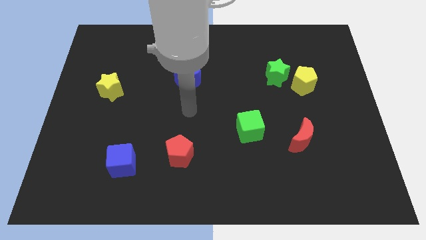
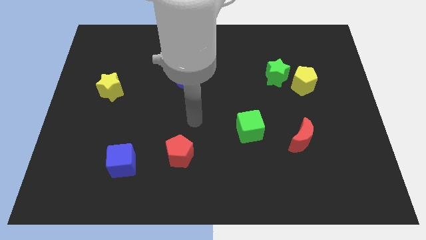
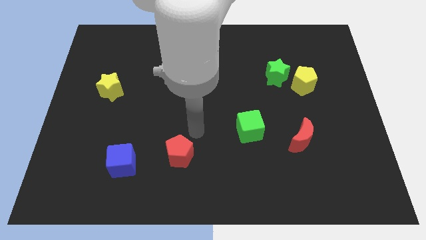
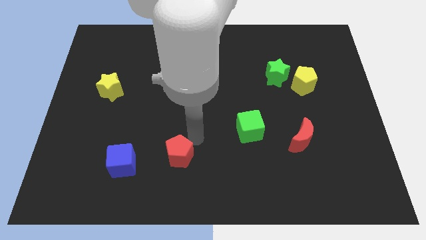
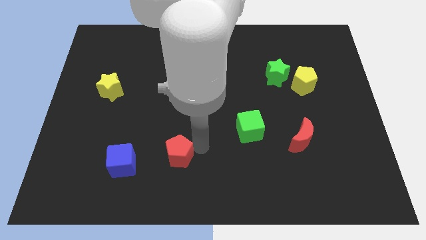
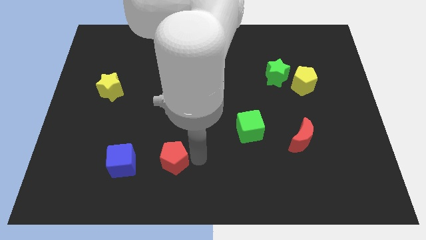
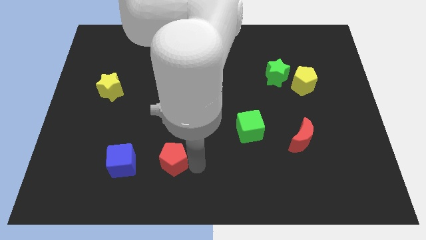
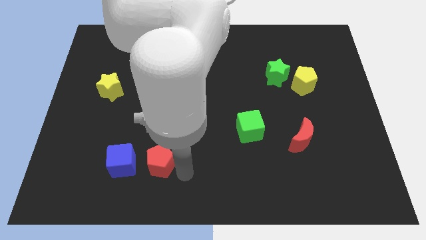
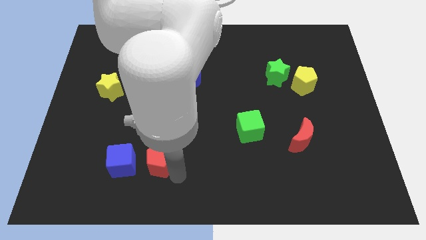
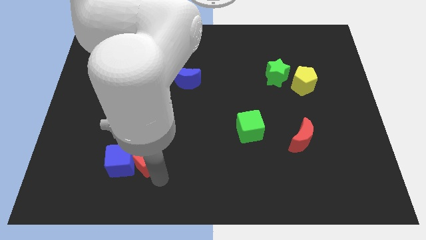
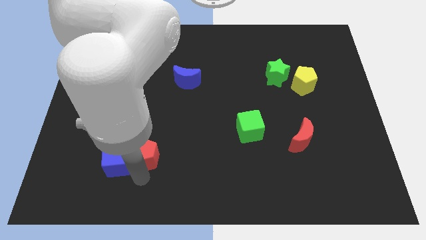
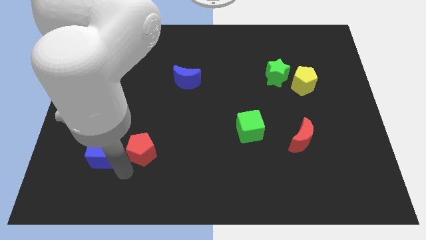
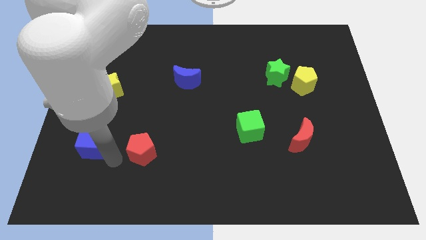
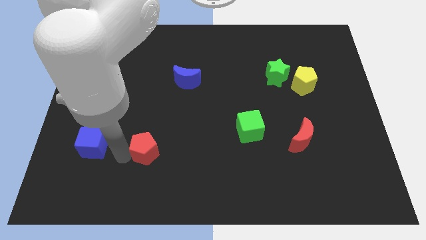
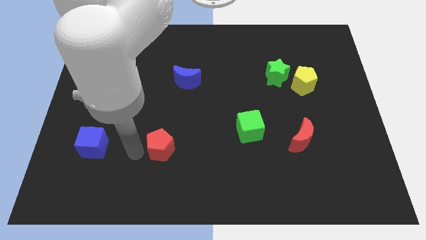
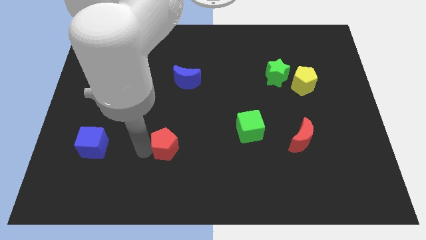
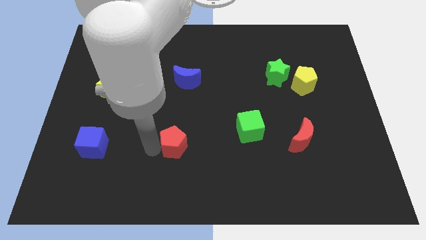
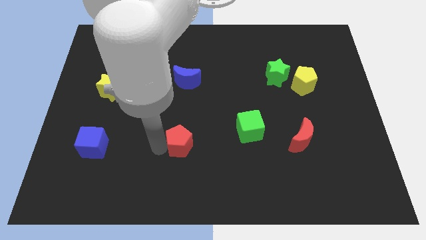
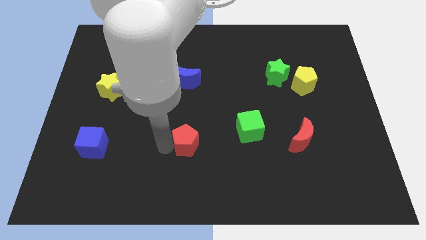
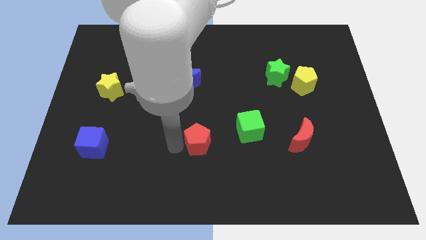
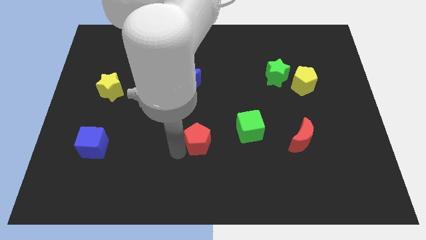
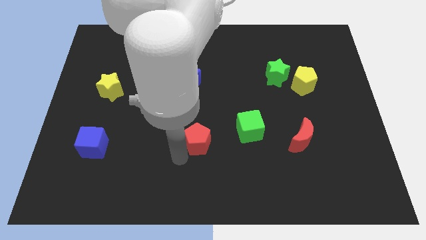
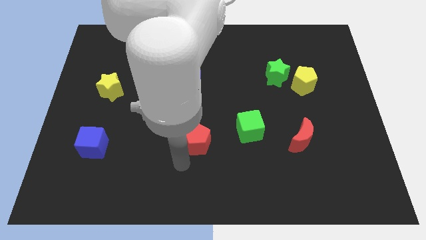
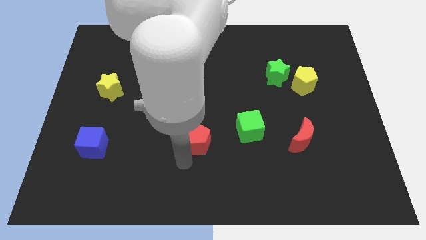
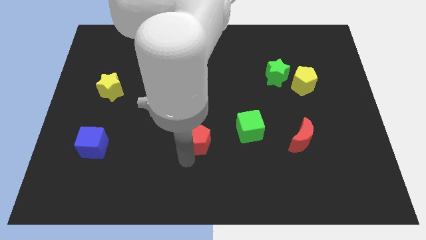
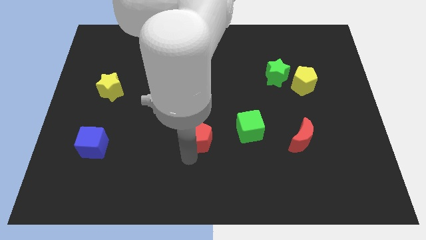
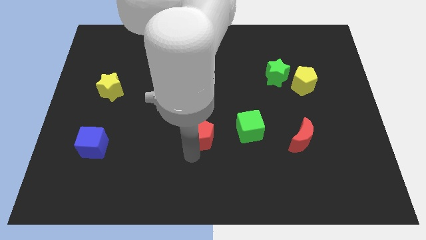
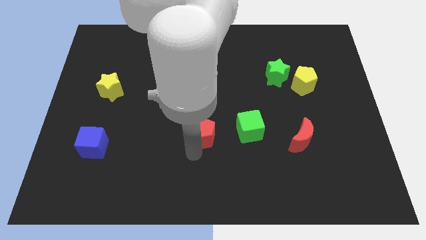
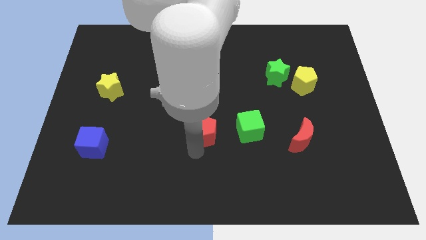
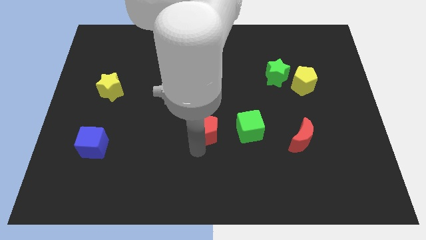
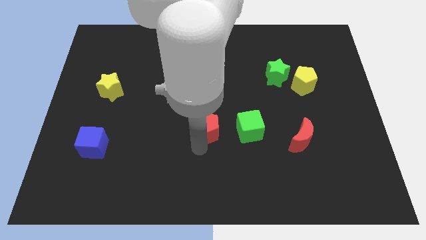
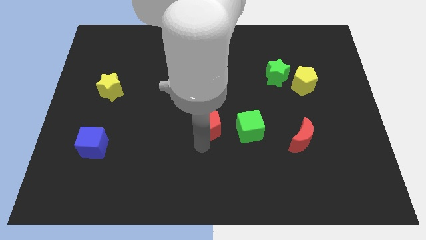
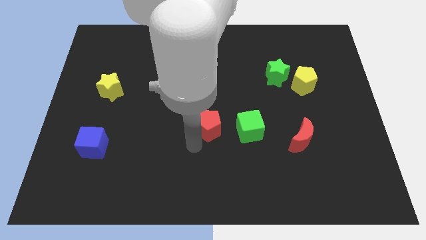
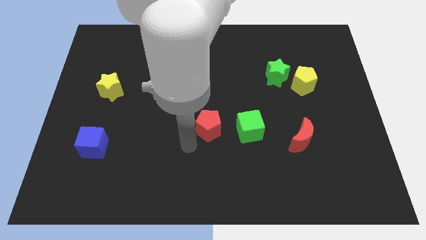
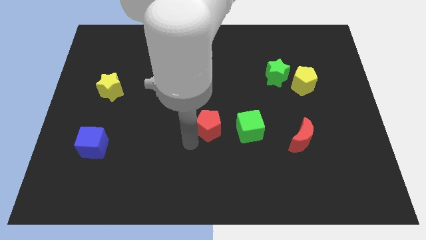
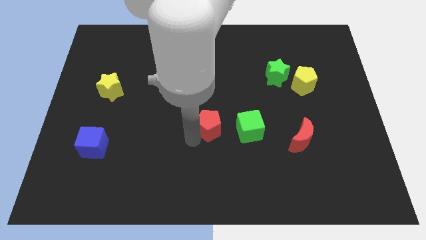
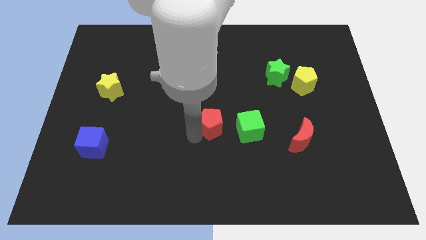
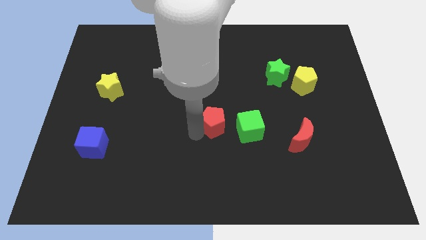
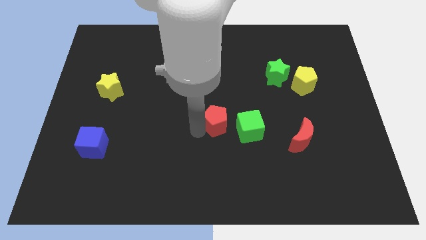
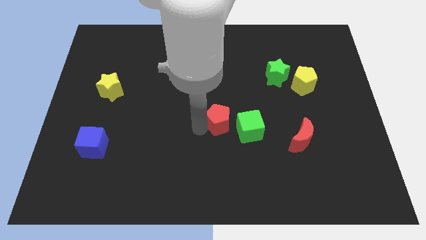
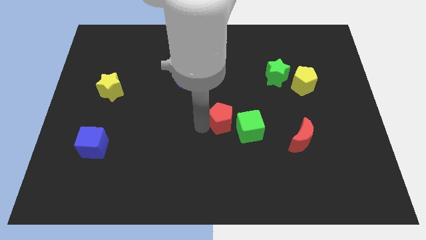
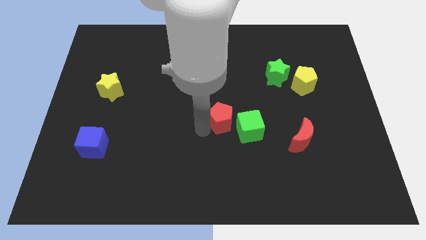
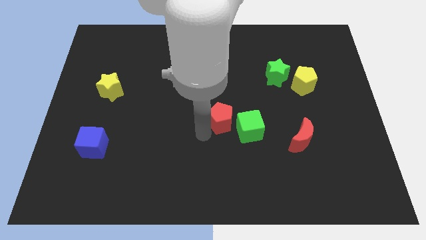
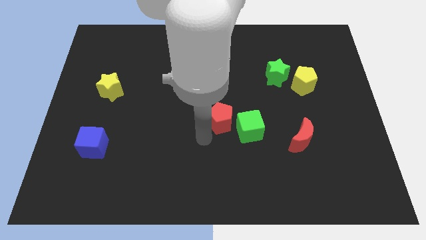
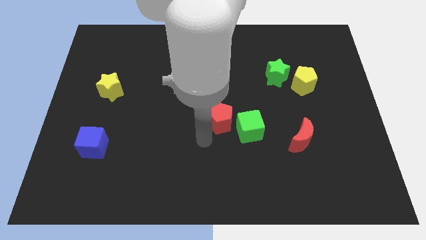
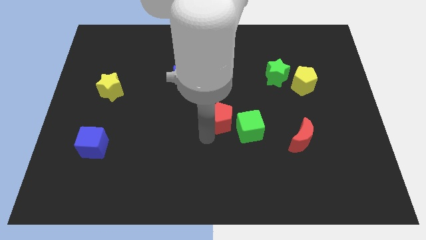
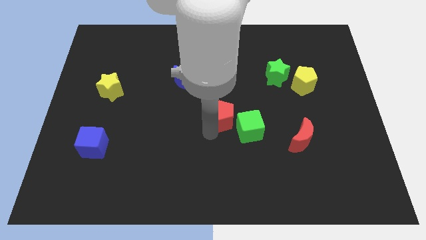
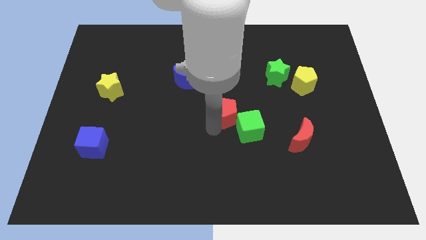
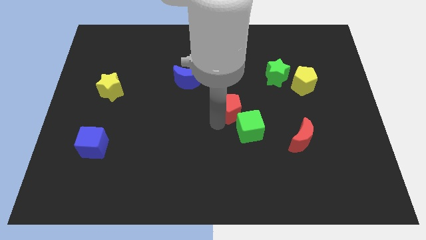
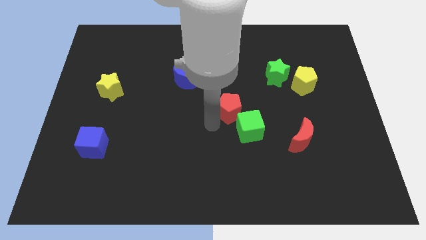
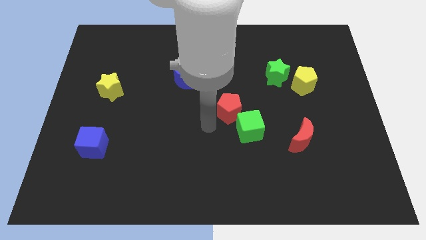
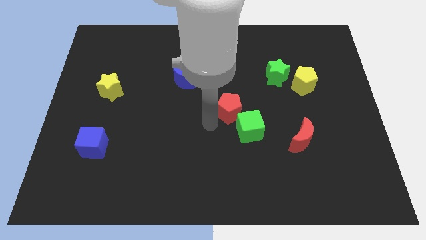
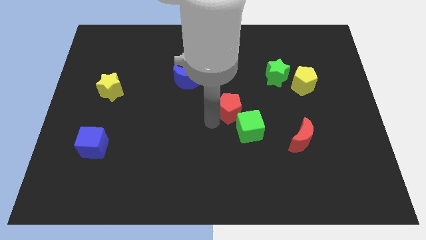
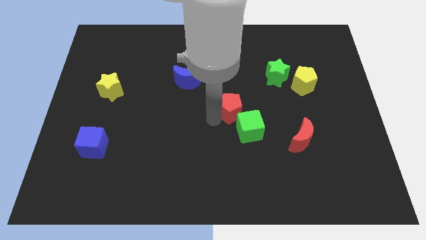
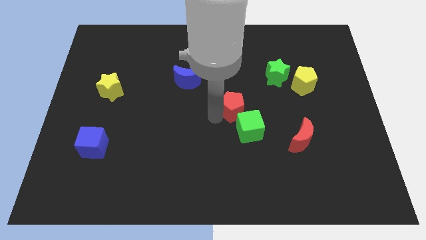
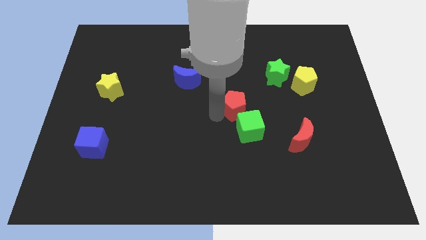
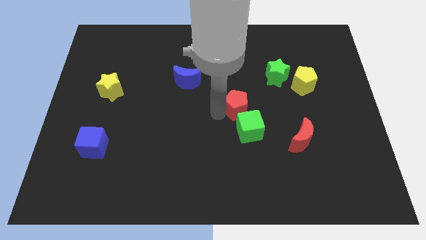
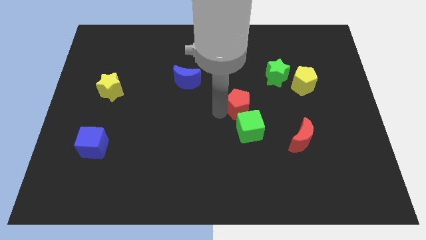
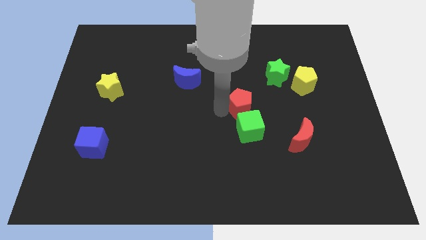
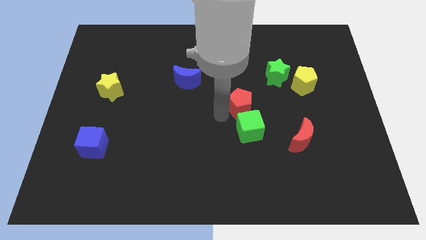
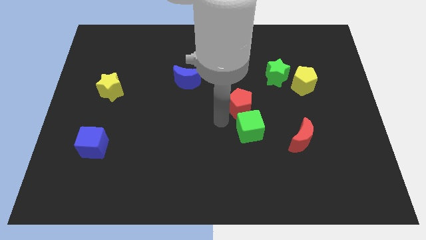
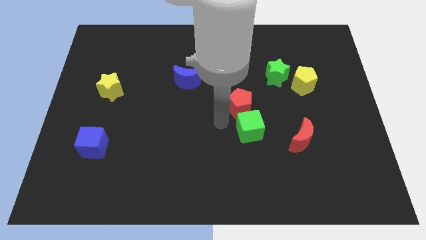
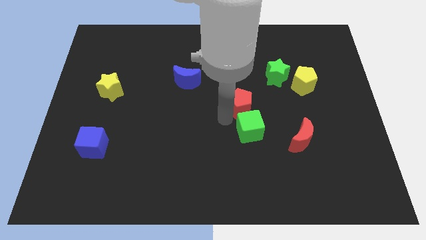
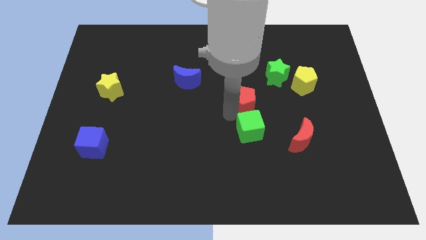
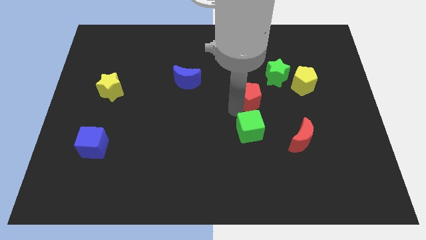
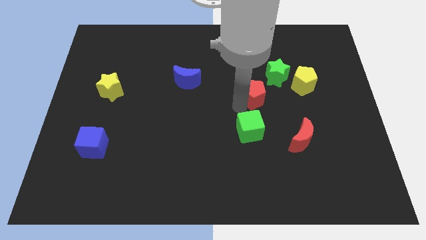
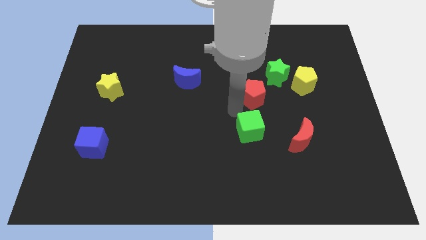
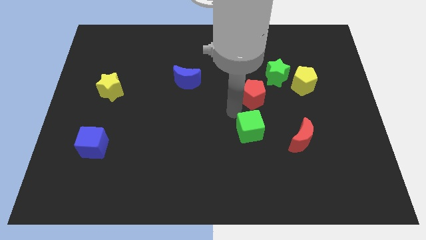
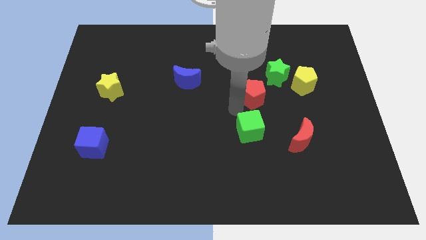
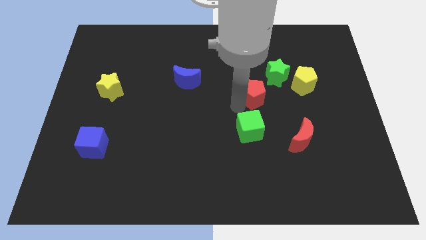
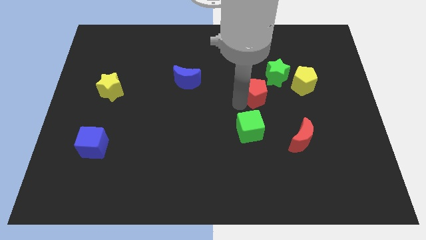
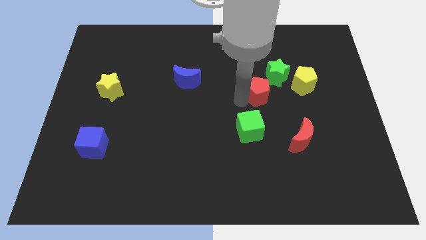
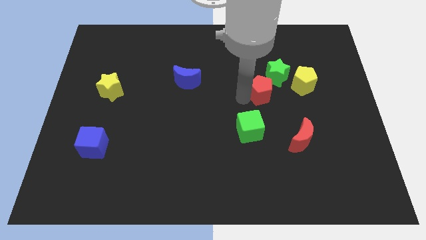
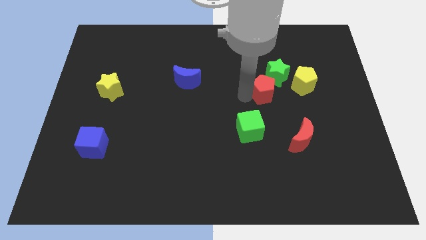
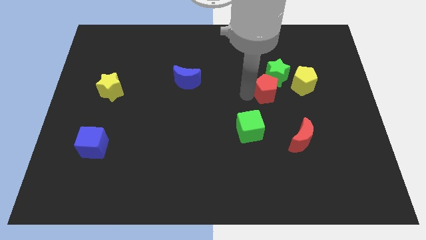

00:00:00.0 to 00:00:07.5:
move the red pentagon to the green star

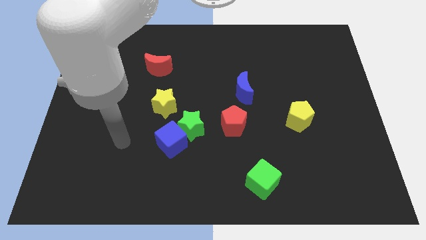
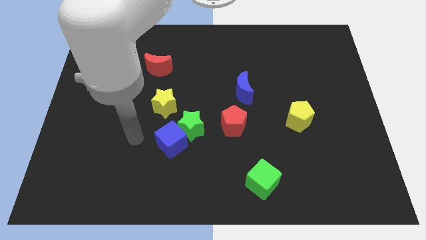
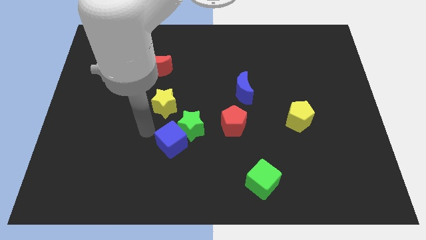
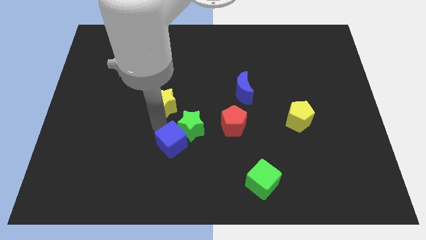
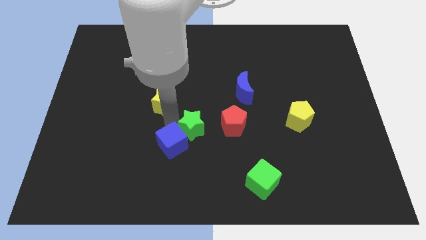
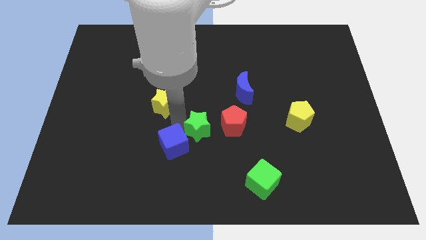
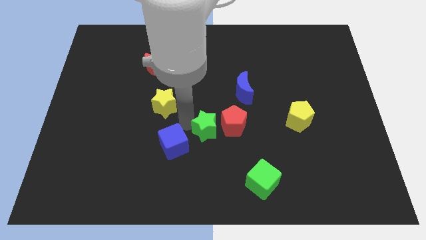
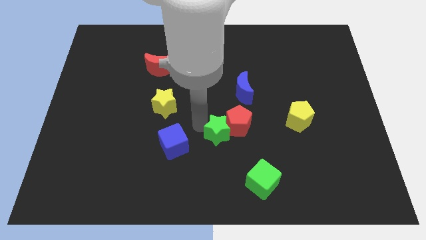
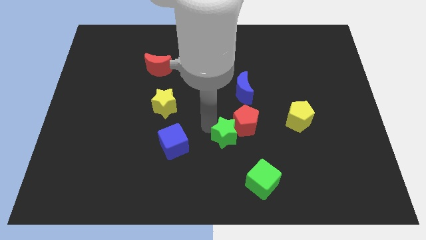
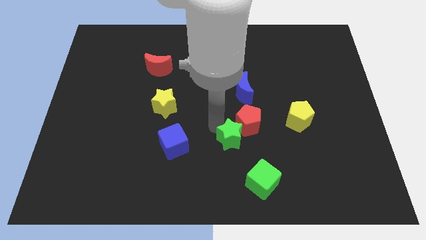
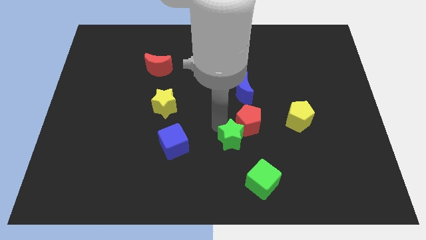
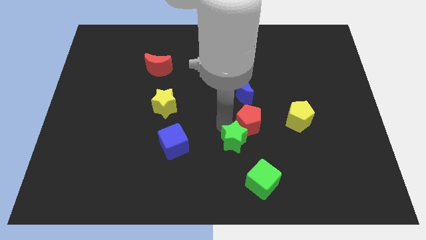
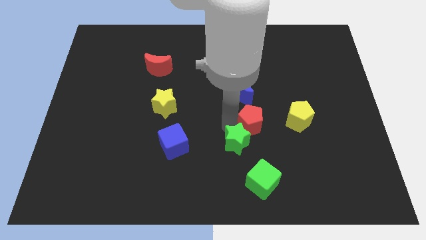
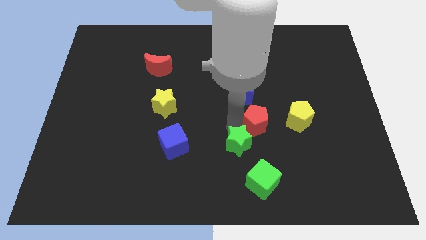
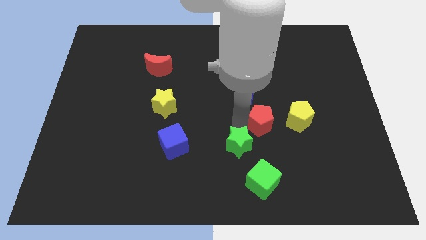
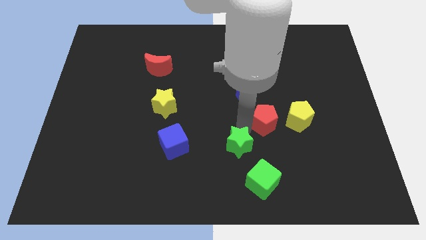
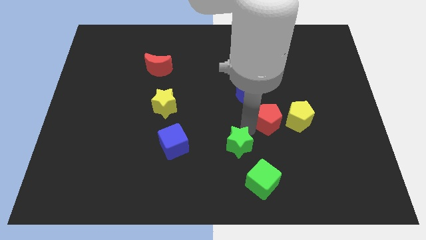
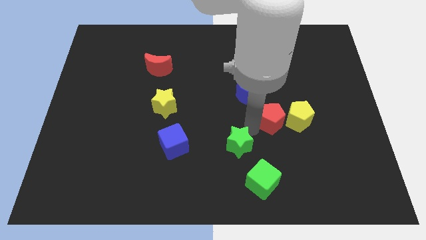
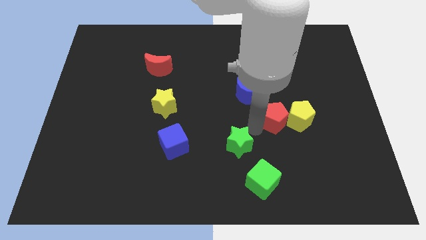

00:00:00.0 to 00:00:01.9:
put the red pentagon to the yellow pentagon
